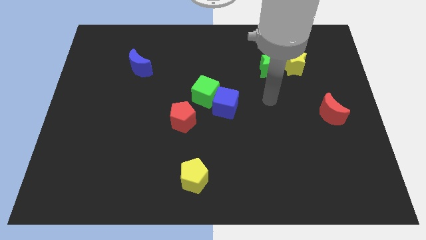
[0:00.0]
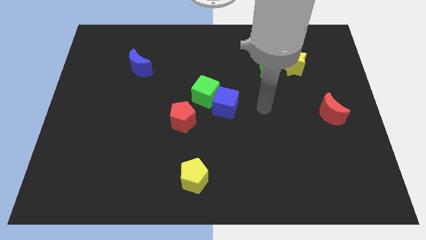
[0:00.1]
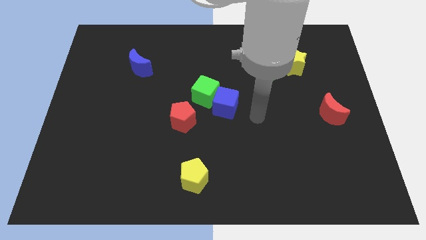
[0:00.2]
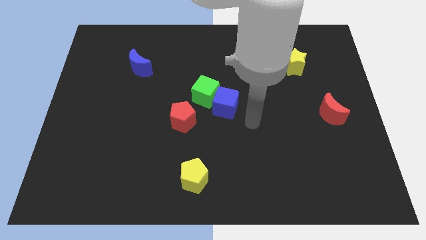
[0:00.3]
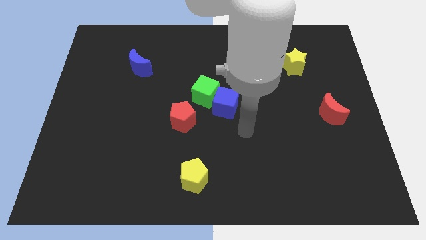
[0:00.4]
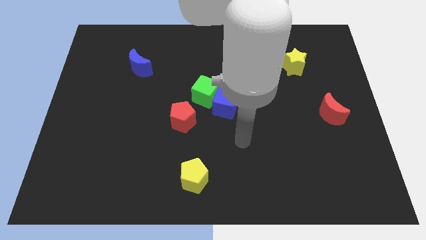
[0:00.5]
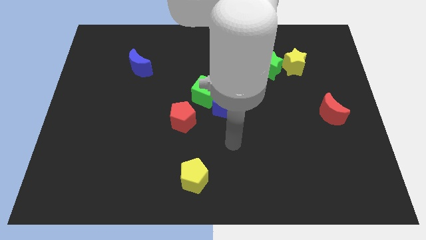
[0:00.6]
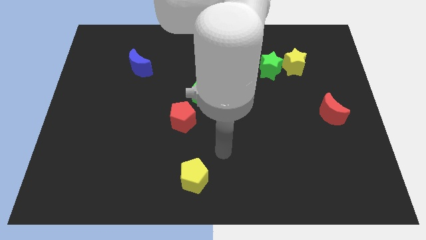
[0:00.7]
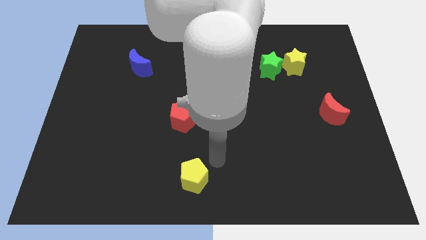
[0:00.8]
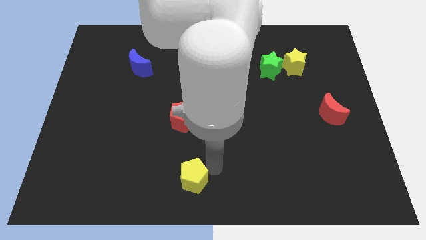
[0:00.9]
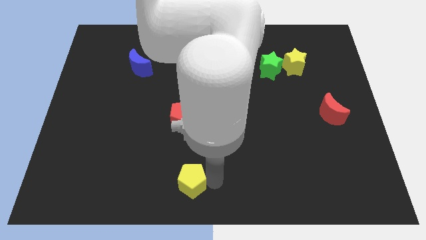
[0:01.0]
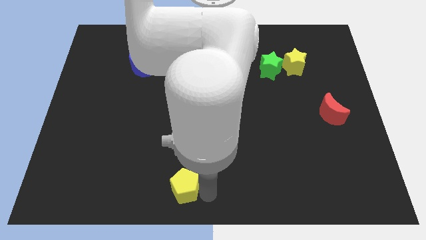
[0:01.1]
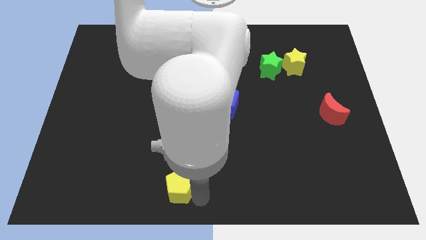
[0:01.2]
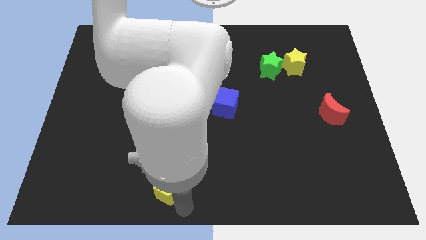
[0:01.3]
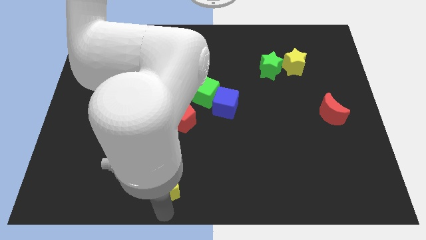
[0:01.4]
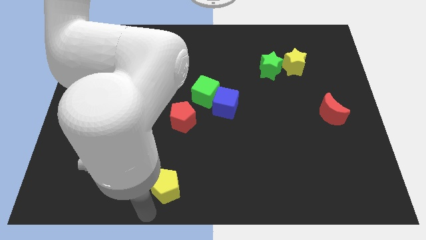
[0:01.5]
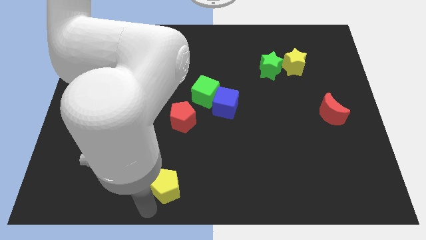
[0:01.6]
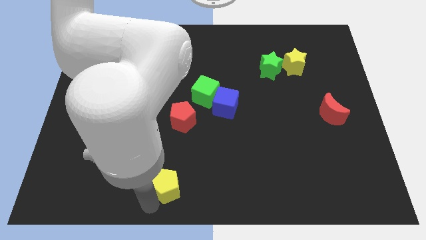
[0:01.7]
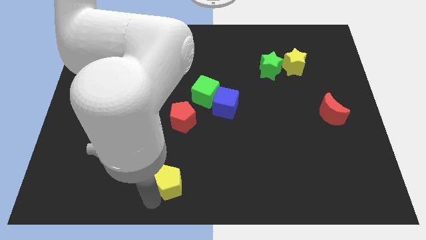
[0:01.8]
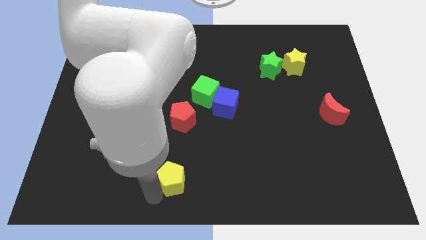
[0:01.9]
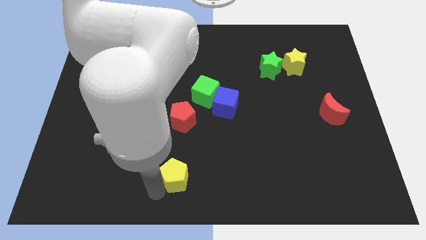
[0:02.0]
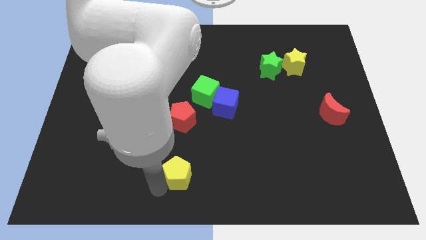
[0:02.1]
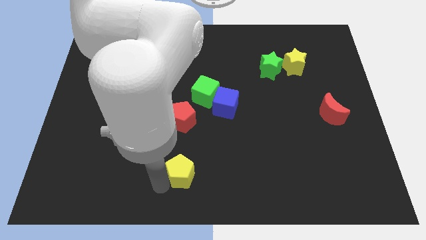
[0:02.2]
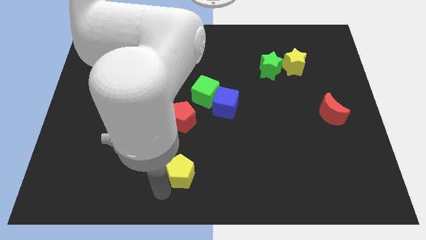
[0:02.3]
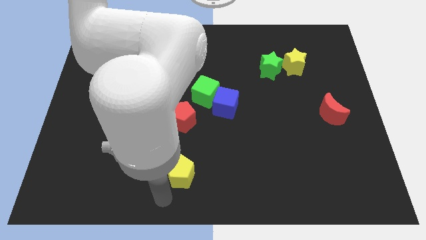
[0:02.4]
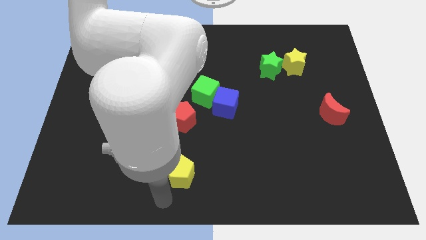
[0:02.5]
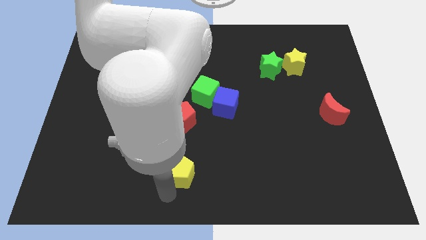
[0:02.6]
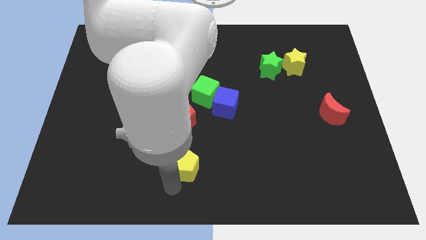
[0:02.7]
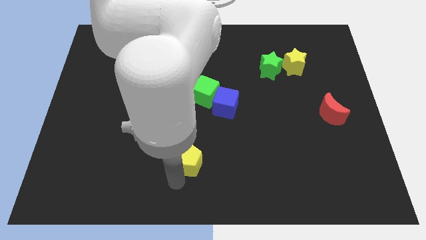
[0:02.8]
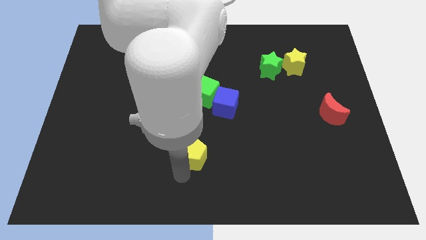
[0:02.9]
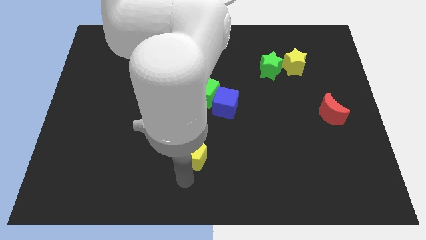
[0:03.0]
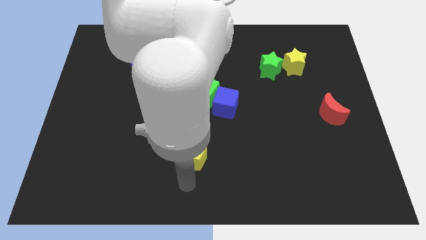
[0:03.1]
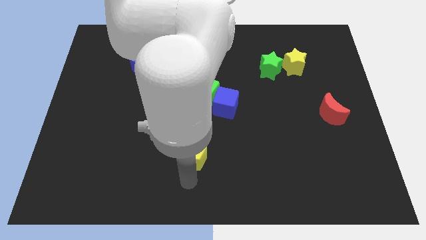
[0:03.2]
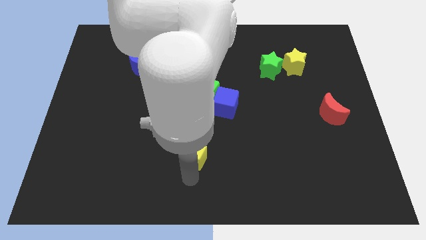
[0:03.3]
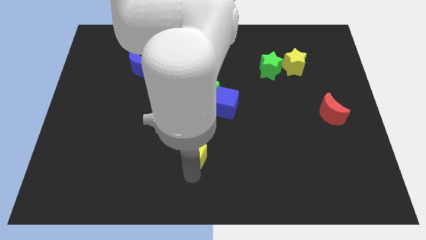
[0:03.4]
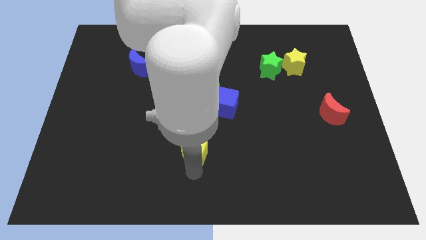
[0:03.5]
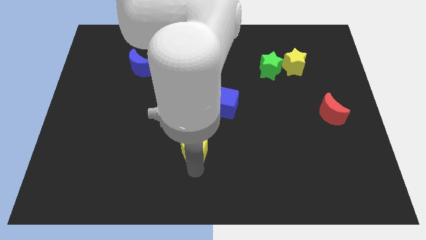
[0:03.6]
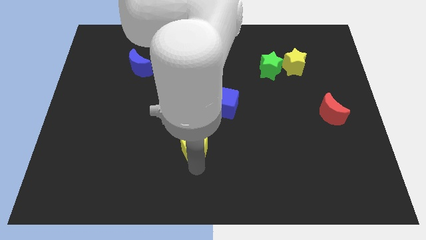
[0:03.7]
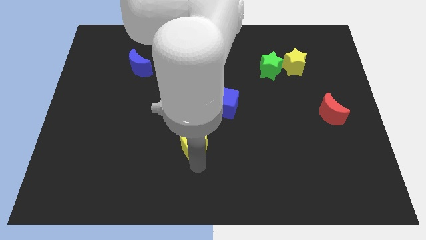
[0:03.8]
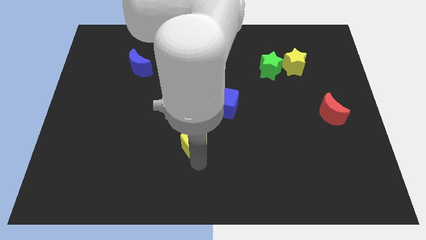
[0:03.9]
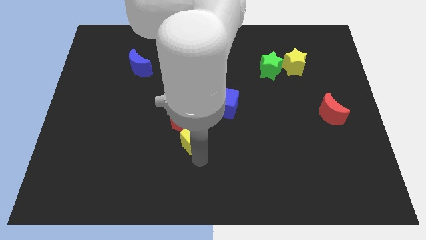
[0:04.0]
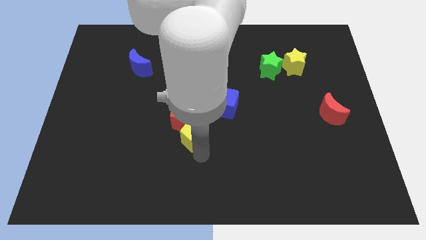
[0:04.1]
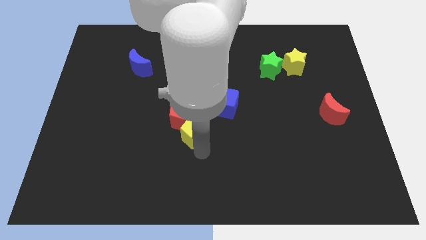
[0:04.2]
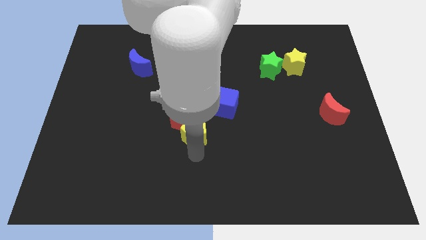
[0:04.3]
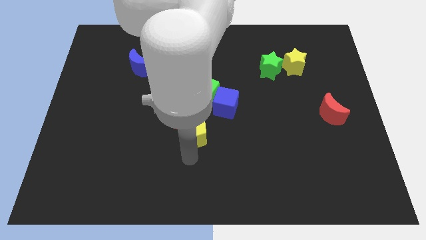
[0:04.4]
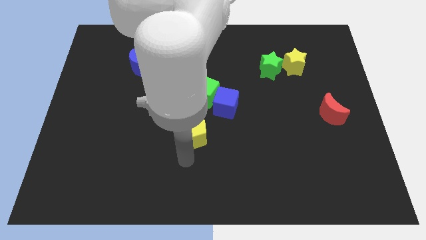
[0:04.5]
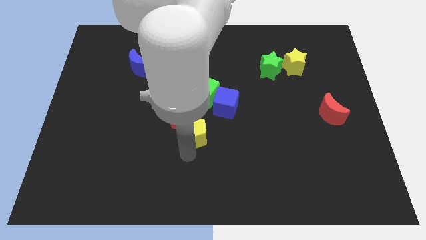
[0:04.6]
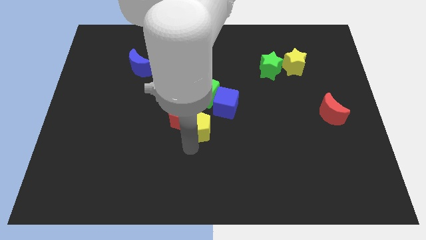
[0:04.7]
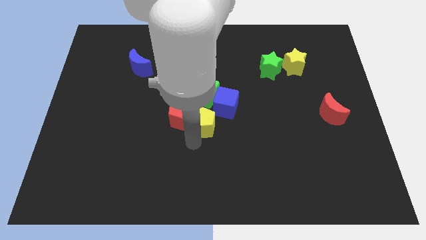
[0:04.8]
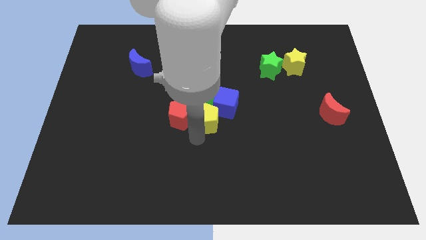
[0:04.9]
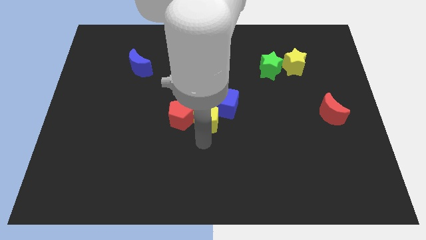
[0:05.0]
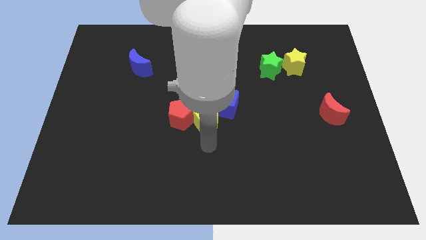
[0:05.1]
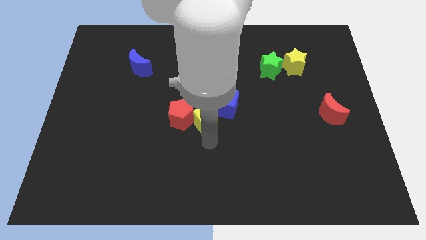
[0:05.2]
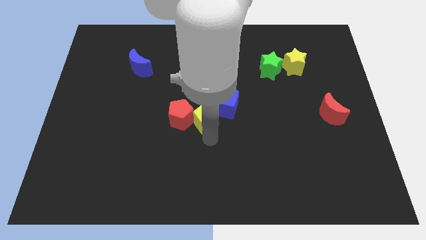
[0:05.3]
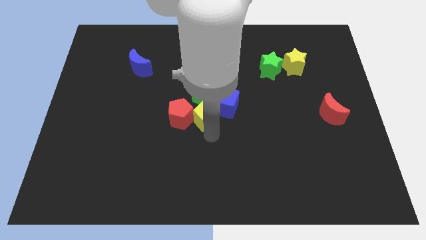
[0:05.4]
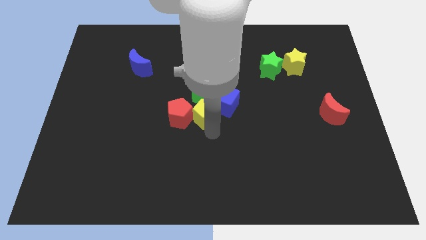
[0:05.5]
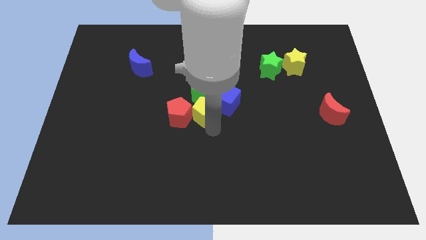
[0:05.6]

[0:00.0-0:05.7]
move the yellow pentagon towards the green cube

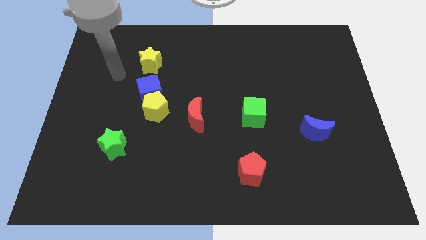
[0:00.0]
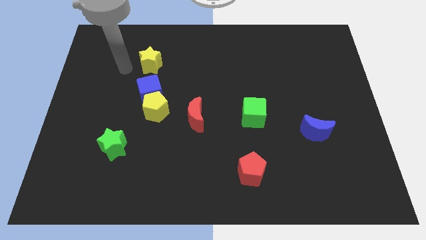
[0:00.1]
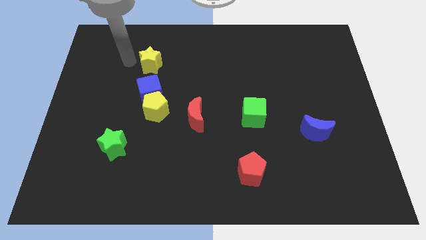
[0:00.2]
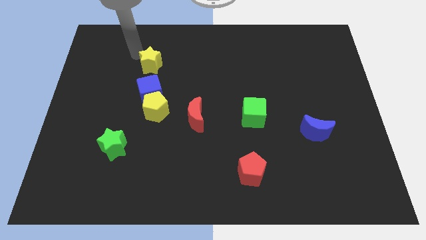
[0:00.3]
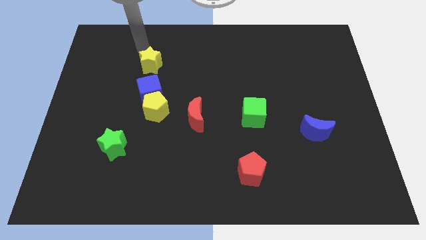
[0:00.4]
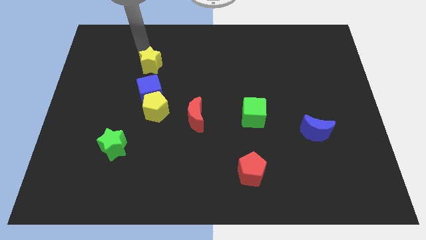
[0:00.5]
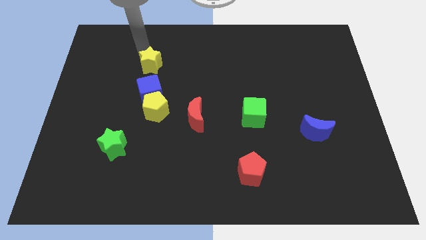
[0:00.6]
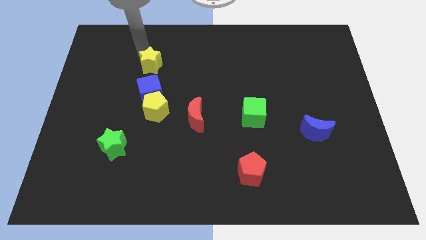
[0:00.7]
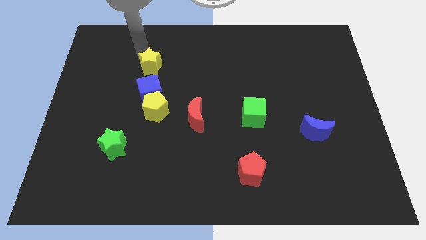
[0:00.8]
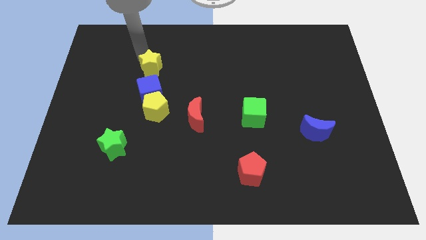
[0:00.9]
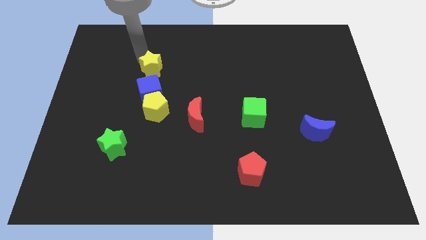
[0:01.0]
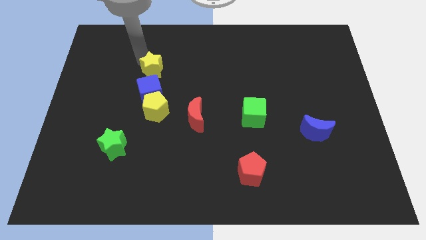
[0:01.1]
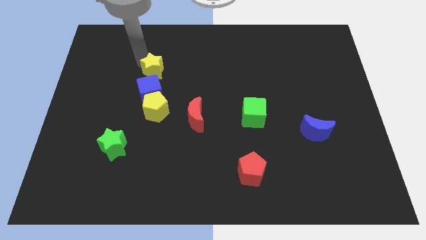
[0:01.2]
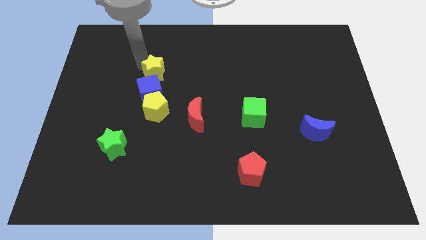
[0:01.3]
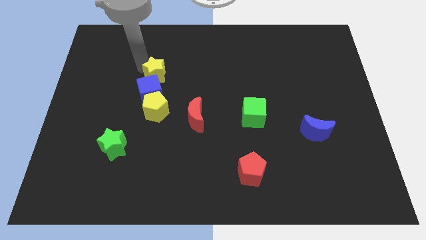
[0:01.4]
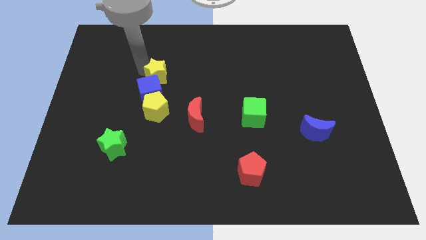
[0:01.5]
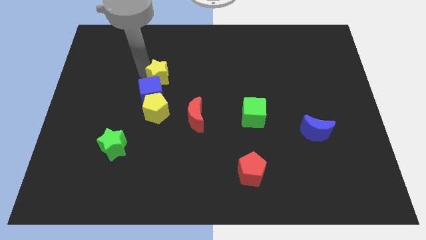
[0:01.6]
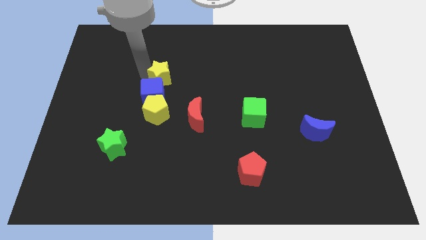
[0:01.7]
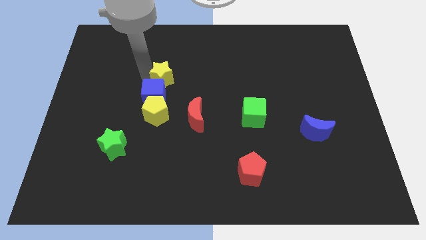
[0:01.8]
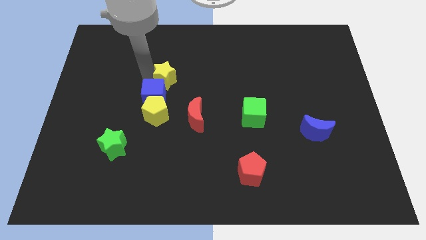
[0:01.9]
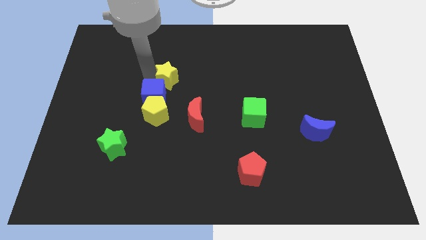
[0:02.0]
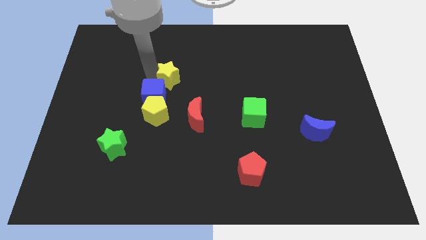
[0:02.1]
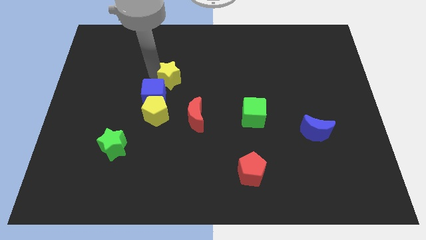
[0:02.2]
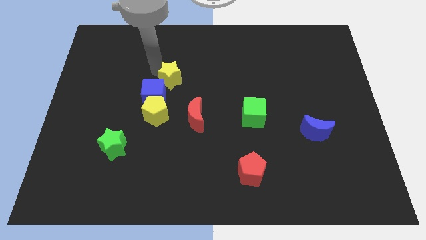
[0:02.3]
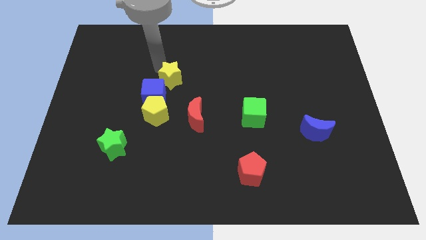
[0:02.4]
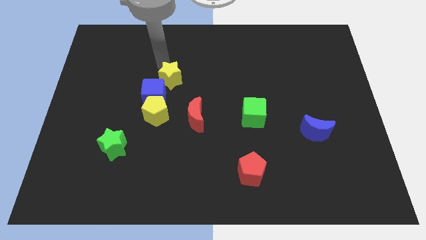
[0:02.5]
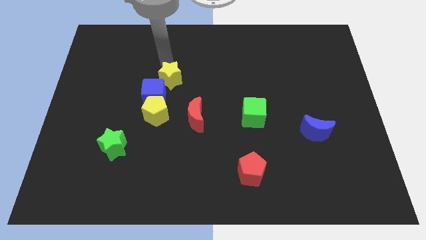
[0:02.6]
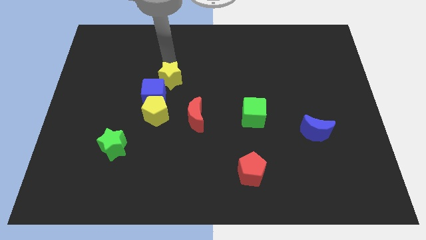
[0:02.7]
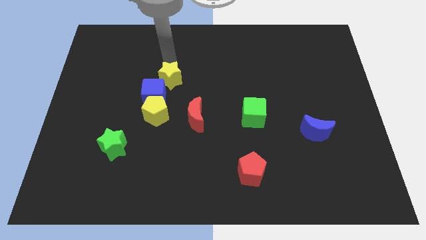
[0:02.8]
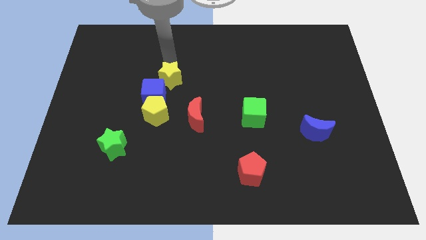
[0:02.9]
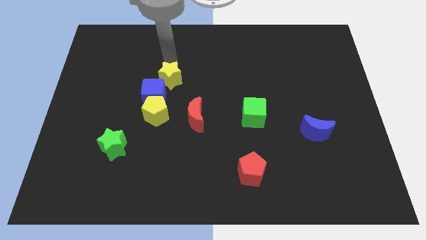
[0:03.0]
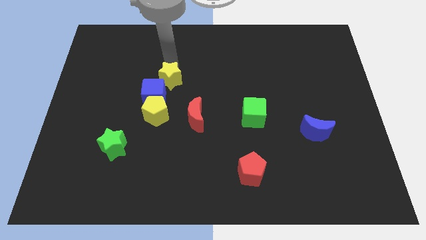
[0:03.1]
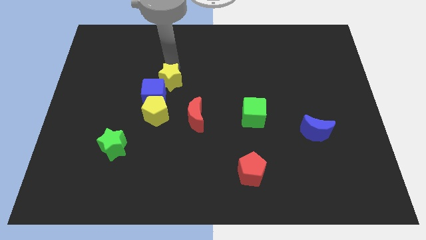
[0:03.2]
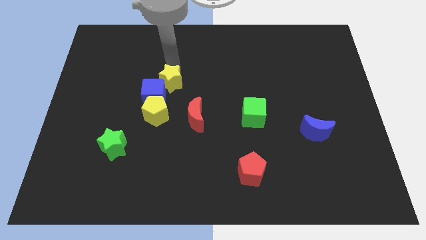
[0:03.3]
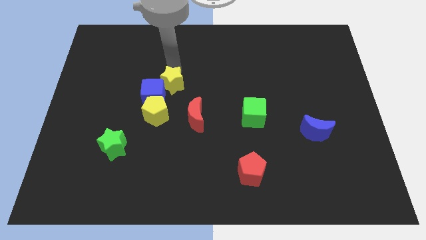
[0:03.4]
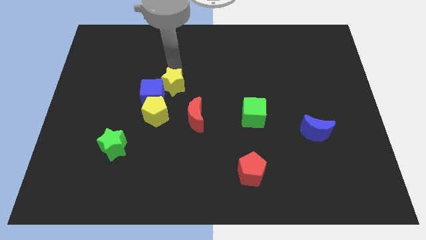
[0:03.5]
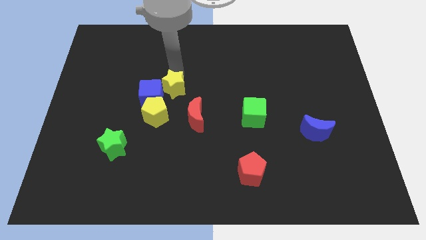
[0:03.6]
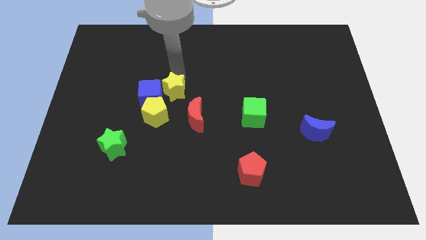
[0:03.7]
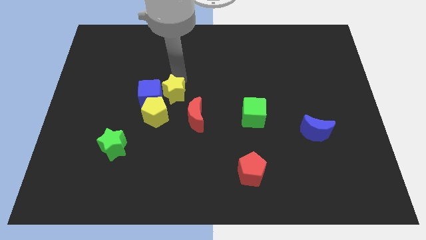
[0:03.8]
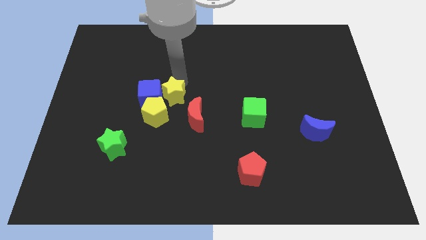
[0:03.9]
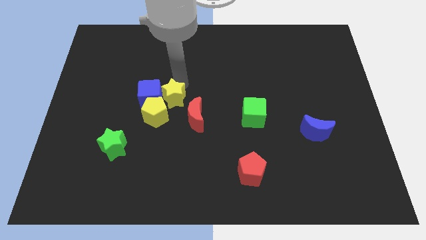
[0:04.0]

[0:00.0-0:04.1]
push the yellow star towards the yellow pentagon
